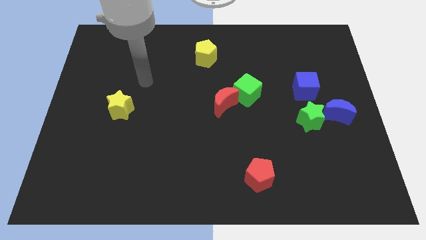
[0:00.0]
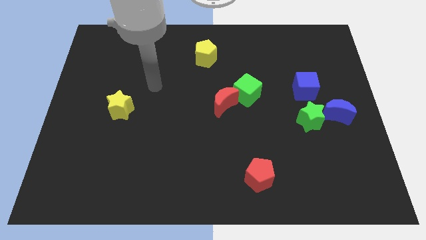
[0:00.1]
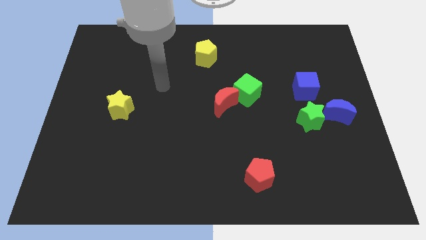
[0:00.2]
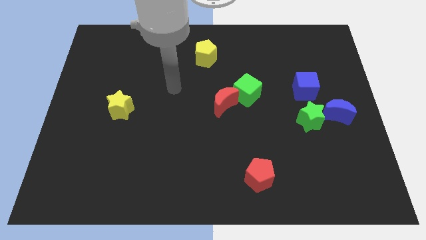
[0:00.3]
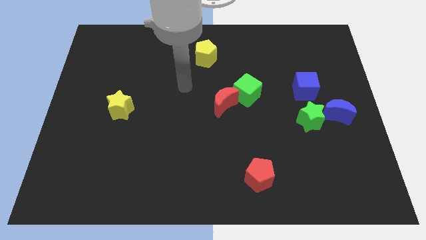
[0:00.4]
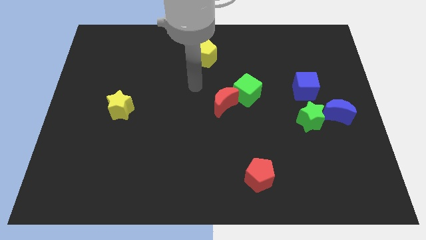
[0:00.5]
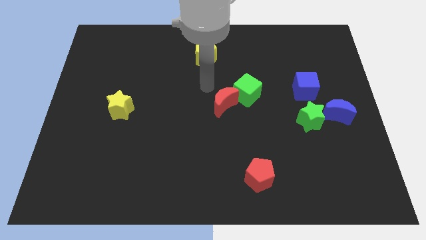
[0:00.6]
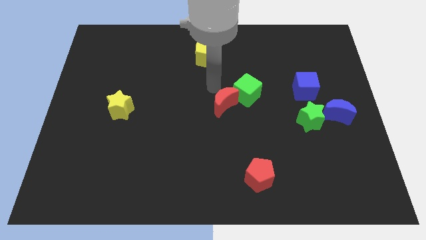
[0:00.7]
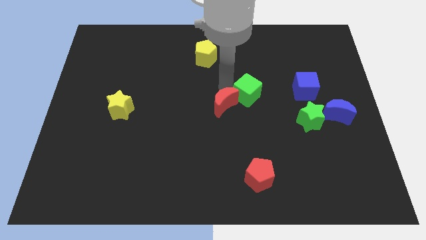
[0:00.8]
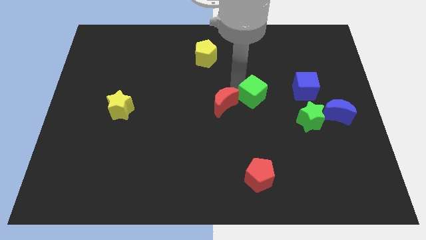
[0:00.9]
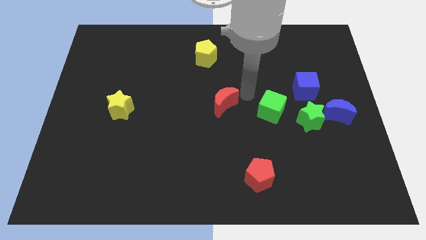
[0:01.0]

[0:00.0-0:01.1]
pull the red moon apart from the green cube

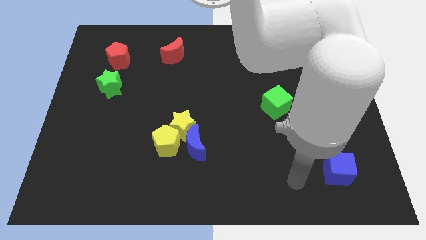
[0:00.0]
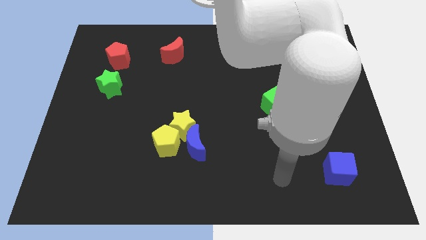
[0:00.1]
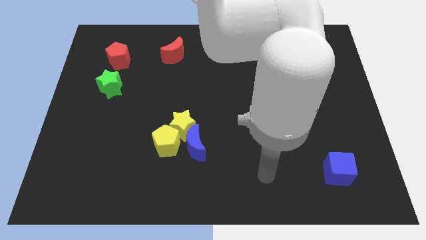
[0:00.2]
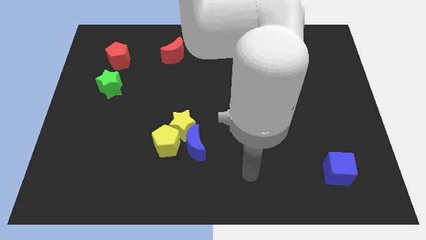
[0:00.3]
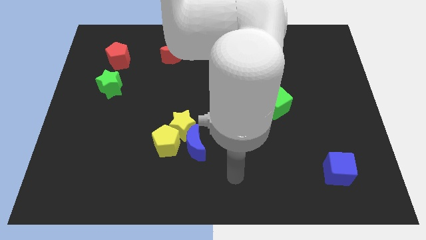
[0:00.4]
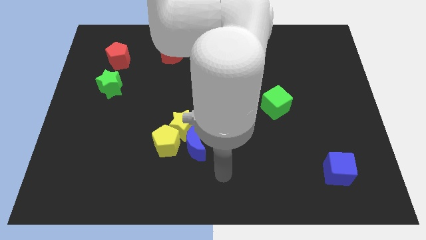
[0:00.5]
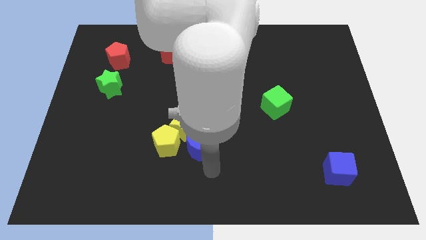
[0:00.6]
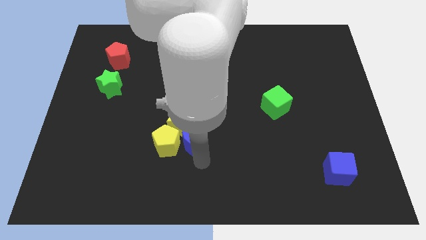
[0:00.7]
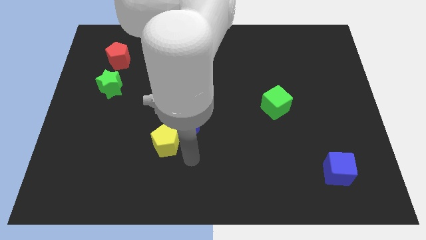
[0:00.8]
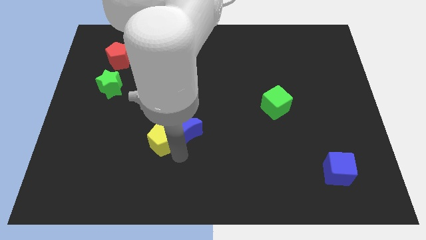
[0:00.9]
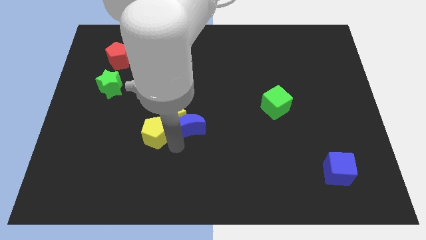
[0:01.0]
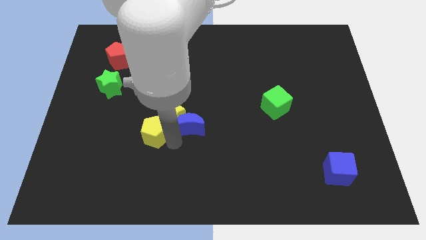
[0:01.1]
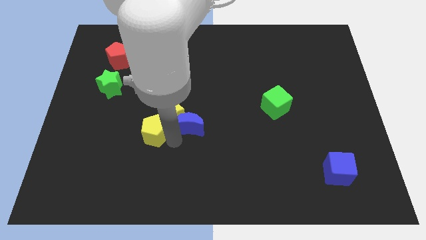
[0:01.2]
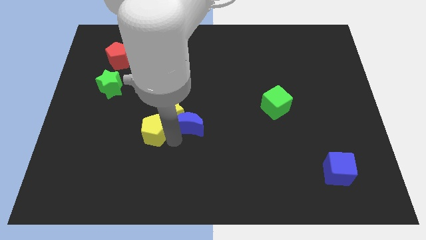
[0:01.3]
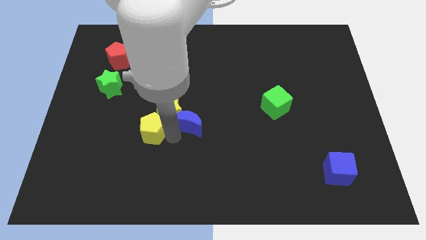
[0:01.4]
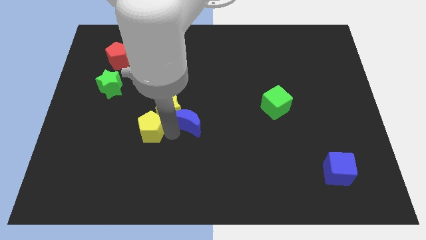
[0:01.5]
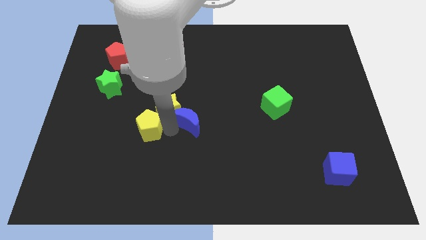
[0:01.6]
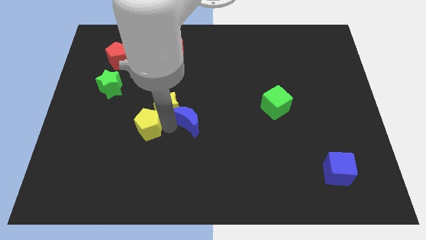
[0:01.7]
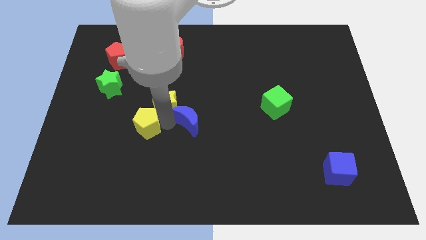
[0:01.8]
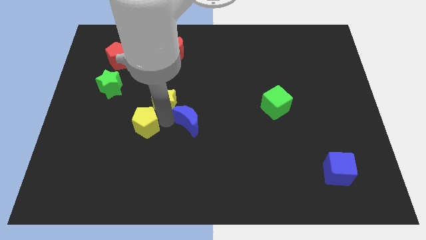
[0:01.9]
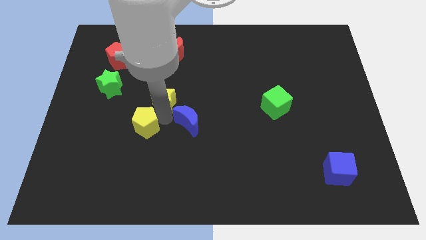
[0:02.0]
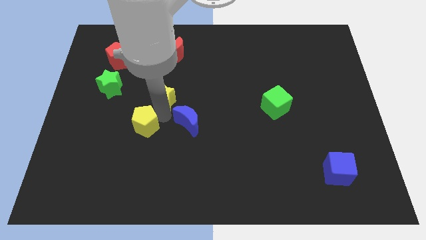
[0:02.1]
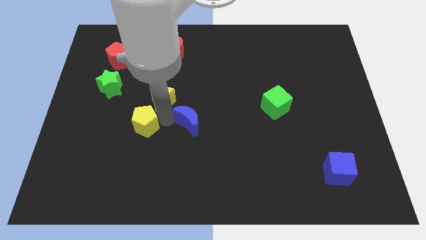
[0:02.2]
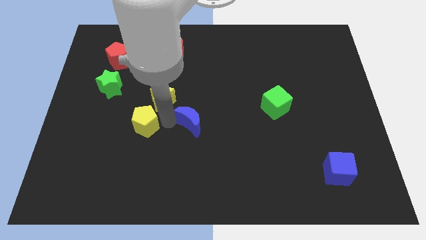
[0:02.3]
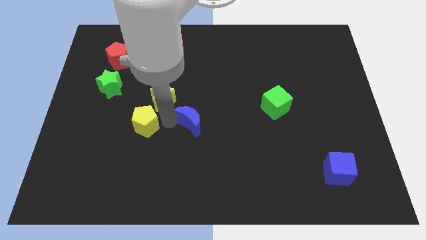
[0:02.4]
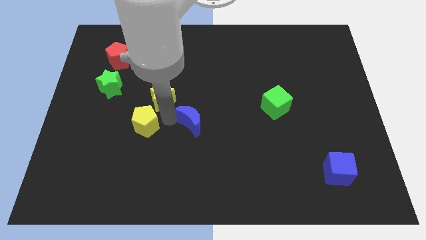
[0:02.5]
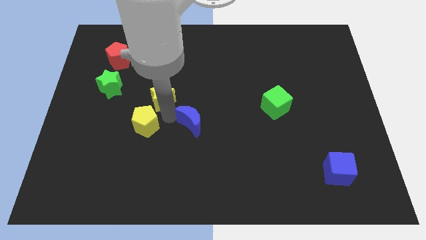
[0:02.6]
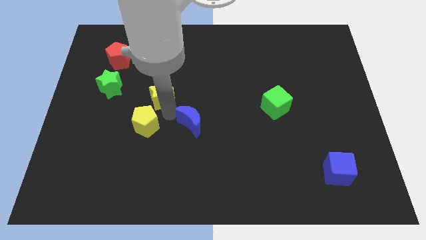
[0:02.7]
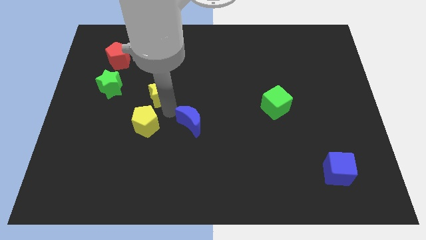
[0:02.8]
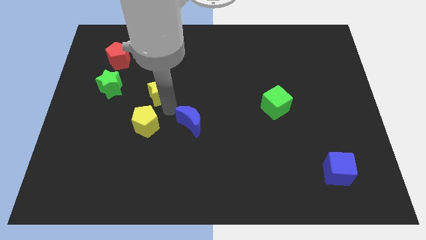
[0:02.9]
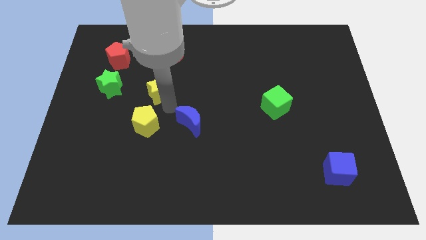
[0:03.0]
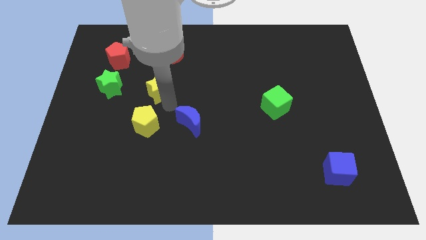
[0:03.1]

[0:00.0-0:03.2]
separate the yellow star from the yellow pentagon and blue moon

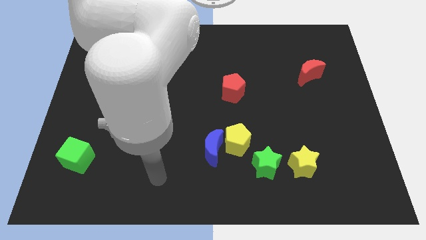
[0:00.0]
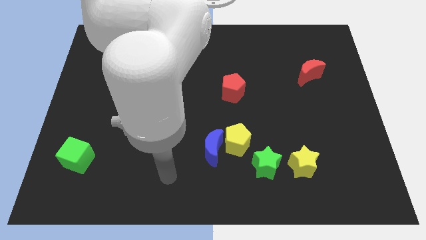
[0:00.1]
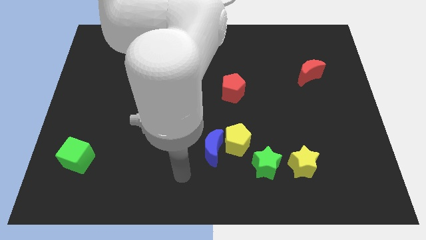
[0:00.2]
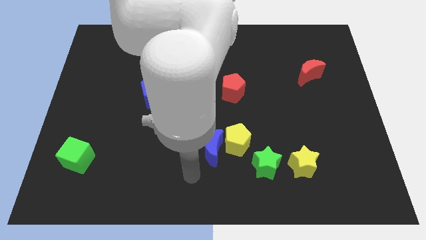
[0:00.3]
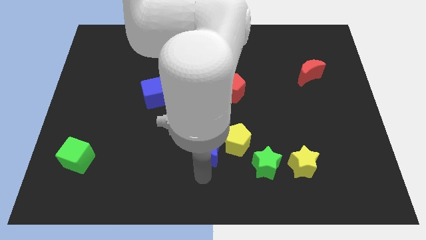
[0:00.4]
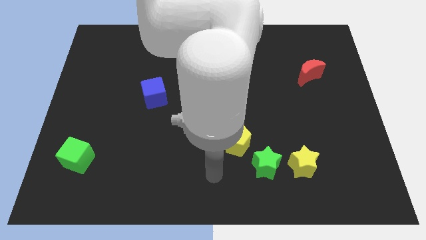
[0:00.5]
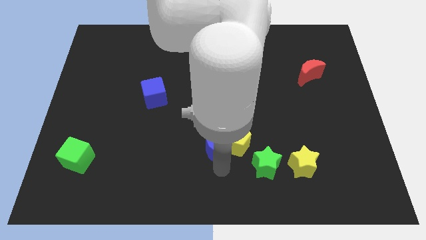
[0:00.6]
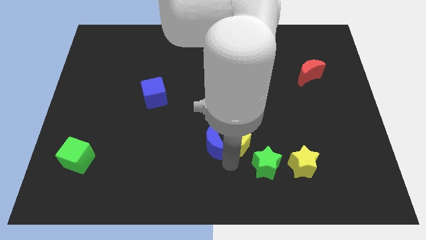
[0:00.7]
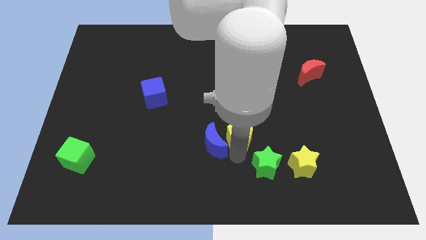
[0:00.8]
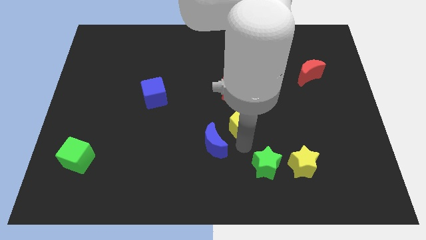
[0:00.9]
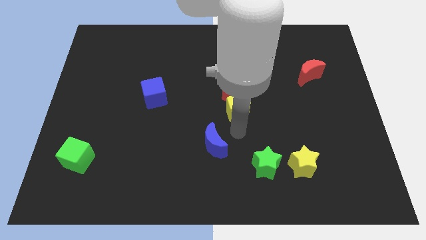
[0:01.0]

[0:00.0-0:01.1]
separate the blue moon from the yellow pentagon

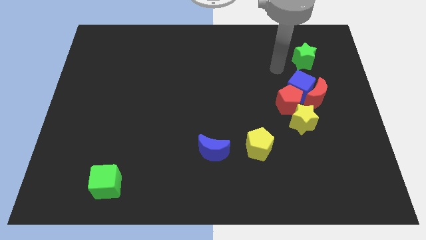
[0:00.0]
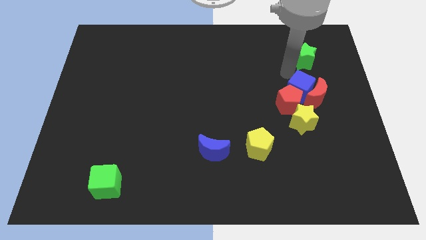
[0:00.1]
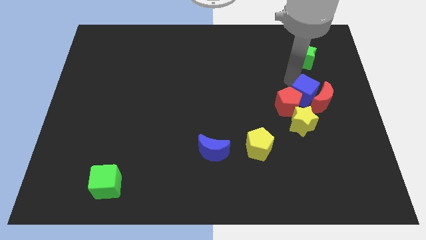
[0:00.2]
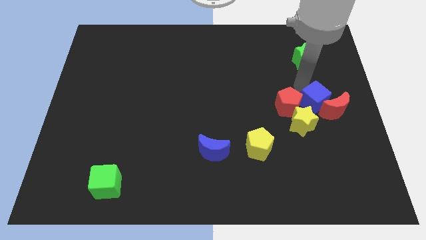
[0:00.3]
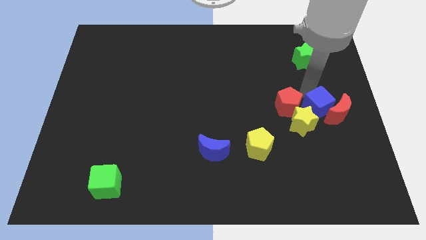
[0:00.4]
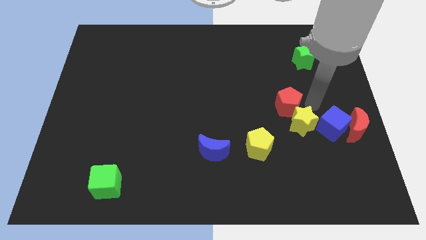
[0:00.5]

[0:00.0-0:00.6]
move the red pentagon away from the blue cube, yellow star, and red moon

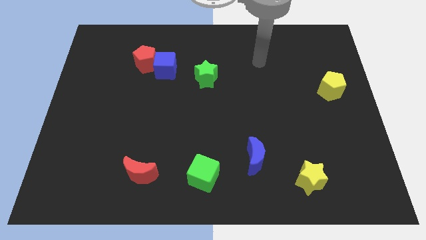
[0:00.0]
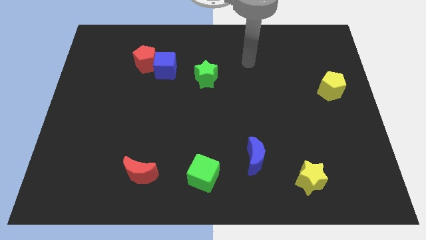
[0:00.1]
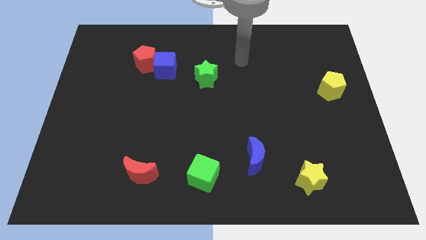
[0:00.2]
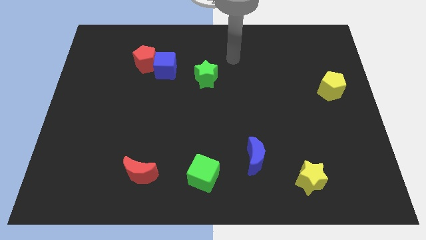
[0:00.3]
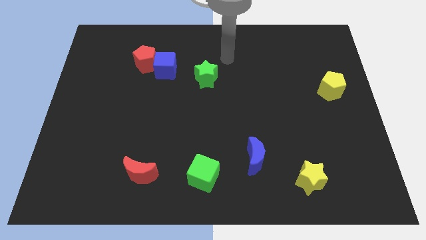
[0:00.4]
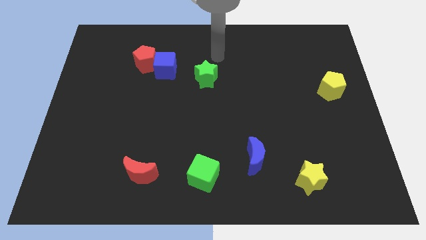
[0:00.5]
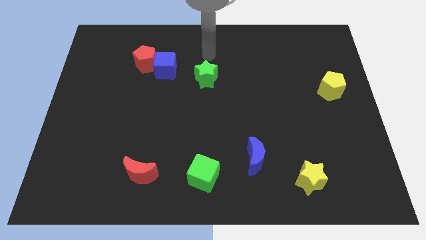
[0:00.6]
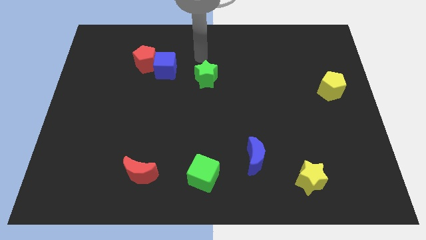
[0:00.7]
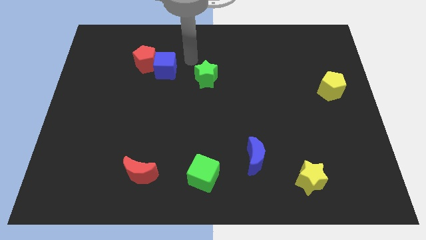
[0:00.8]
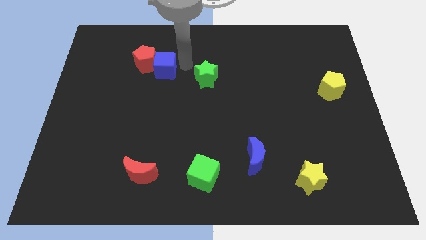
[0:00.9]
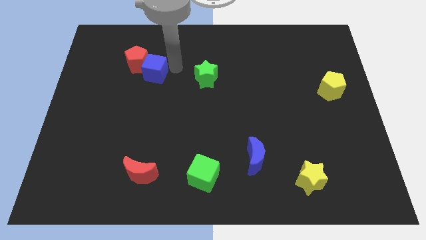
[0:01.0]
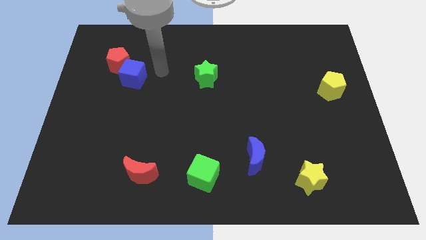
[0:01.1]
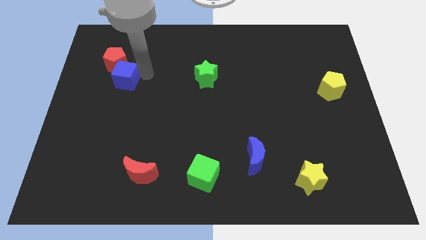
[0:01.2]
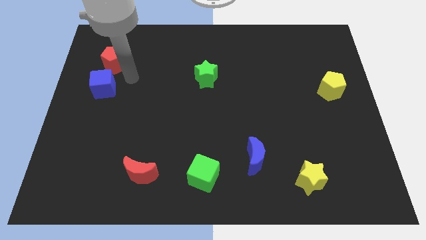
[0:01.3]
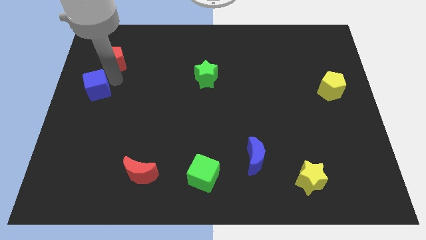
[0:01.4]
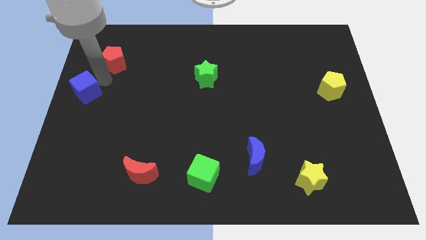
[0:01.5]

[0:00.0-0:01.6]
separate the red pentagon from the blue cube

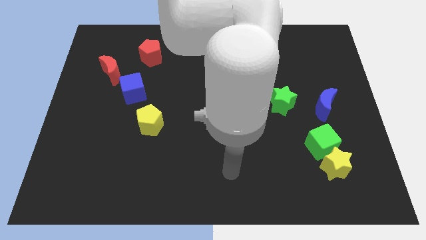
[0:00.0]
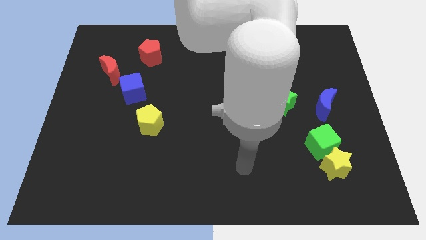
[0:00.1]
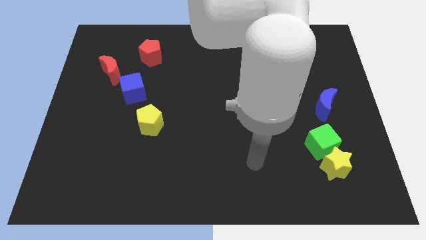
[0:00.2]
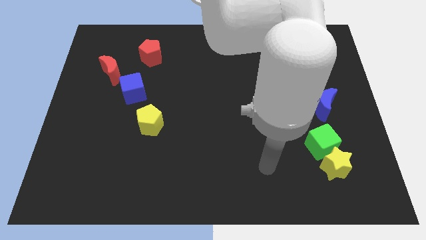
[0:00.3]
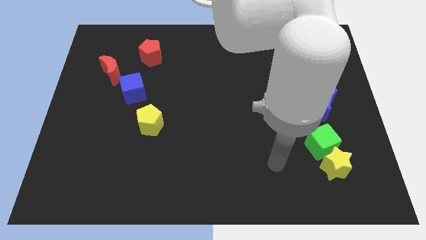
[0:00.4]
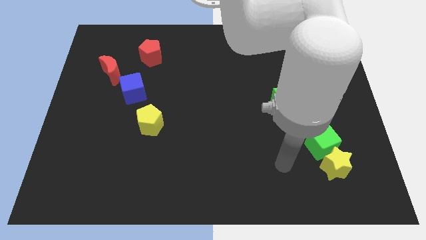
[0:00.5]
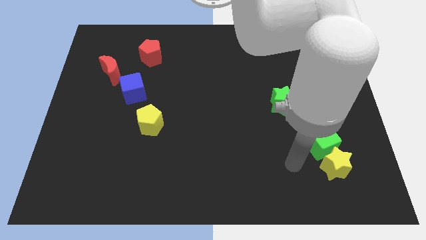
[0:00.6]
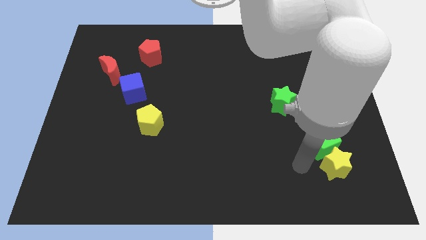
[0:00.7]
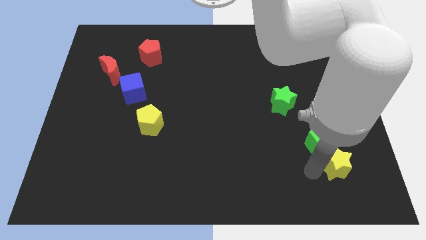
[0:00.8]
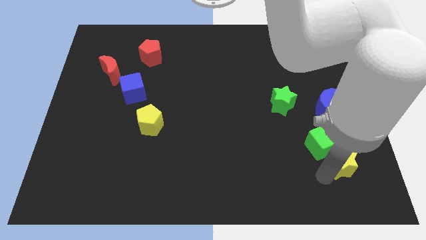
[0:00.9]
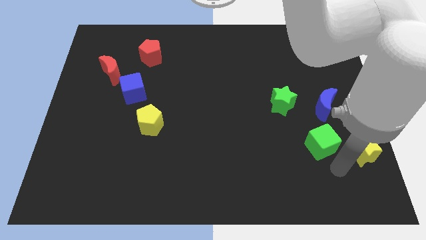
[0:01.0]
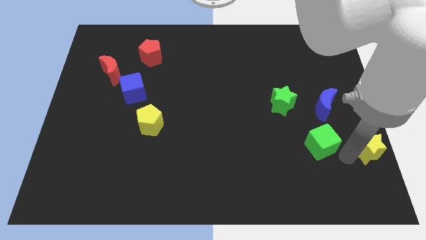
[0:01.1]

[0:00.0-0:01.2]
pull the green cube apart from the yellow star

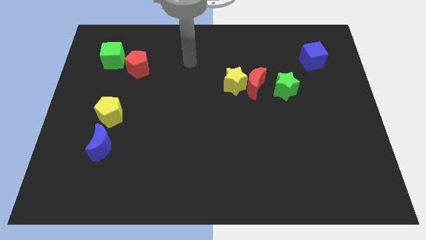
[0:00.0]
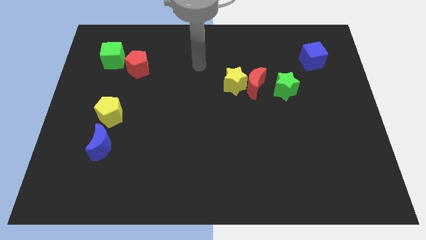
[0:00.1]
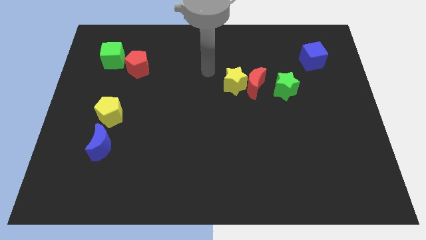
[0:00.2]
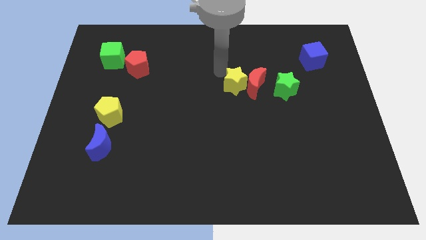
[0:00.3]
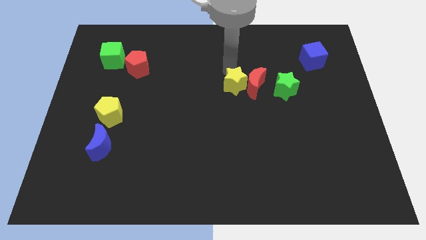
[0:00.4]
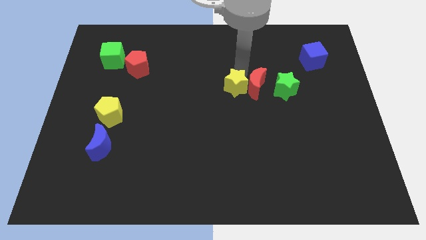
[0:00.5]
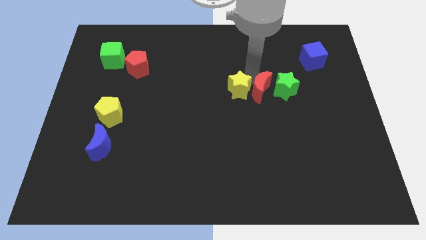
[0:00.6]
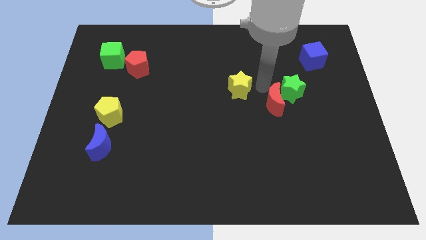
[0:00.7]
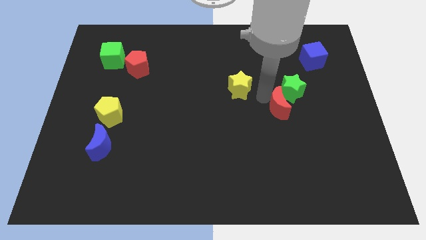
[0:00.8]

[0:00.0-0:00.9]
move the yellow star away from the red moon
